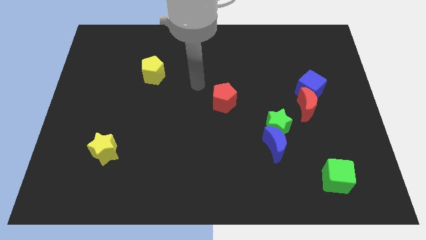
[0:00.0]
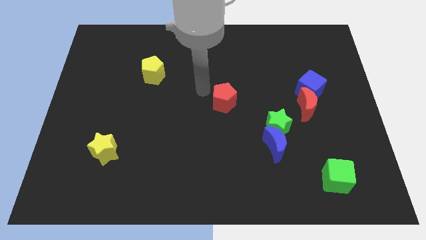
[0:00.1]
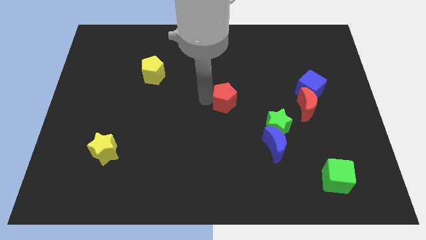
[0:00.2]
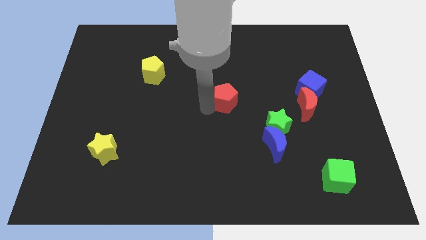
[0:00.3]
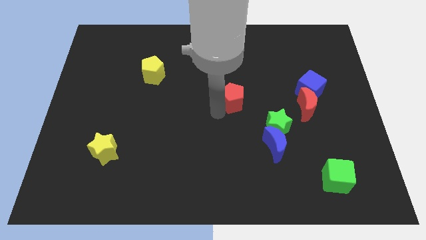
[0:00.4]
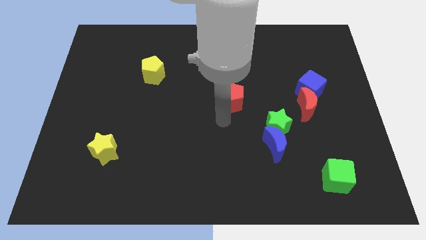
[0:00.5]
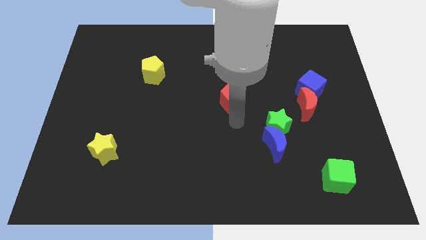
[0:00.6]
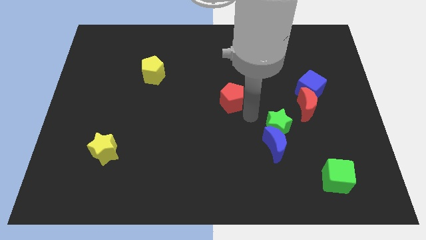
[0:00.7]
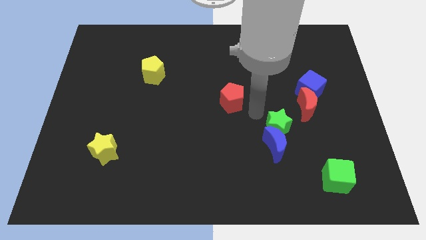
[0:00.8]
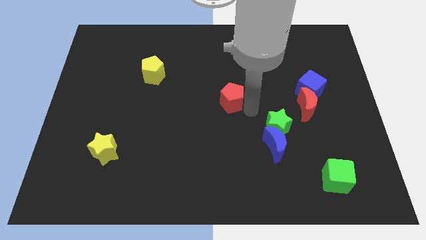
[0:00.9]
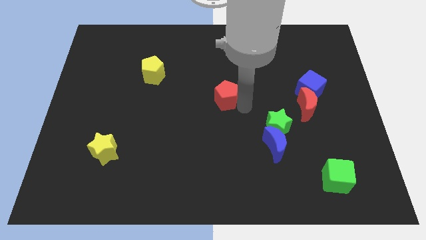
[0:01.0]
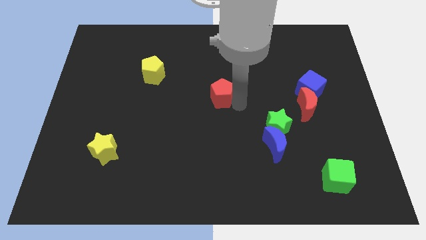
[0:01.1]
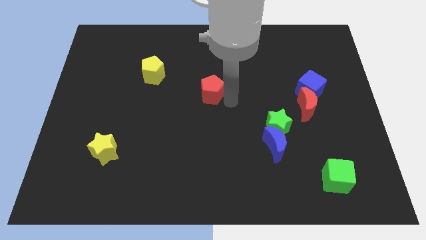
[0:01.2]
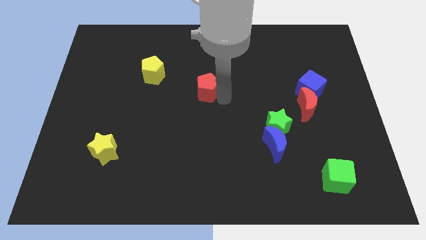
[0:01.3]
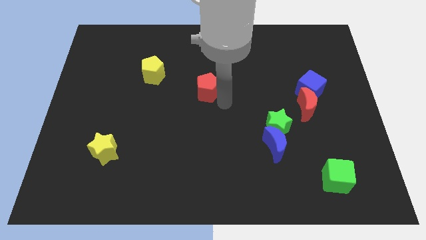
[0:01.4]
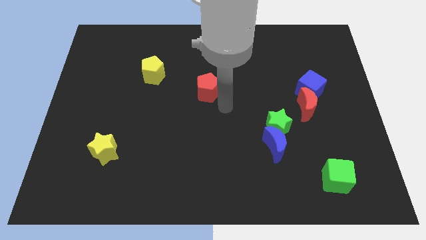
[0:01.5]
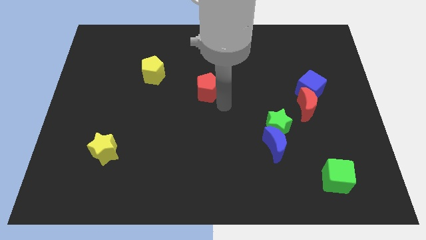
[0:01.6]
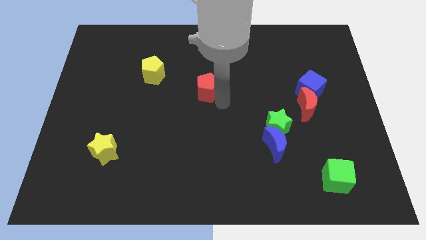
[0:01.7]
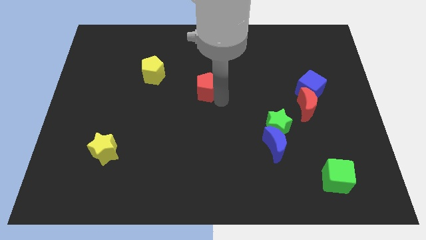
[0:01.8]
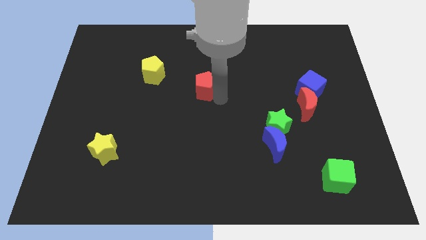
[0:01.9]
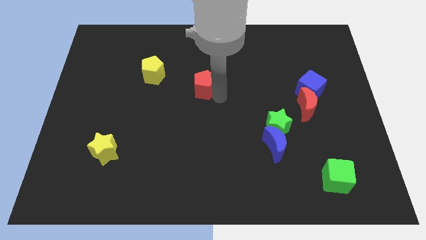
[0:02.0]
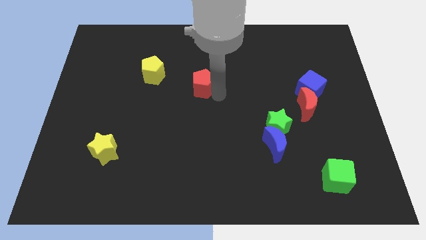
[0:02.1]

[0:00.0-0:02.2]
slide the red pentagon a little diagonally up and left

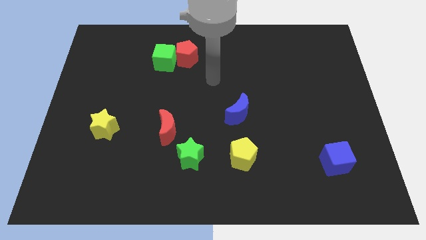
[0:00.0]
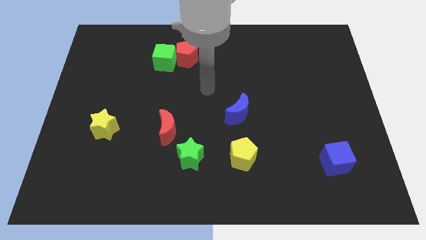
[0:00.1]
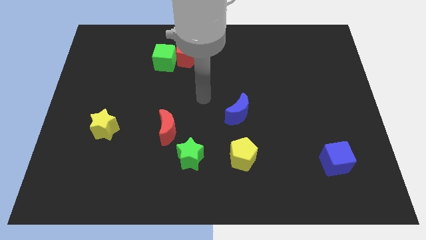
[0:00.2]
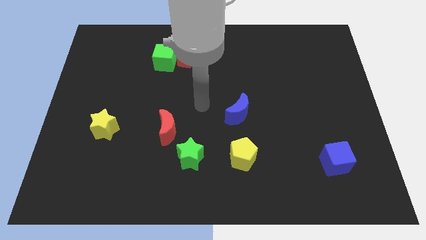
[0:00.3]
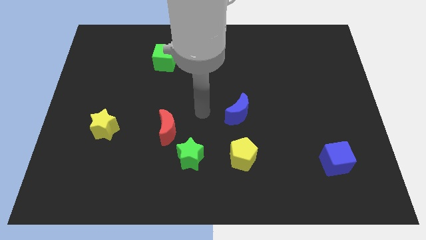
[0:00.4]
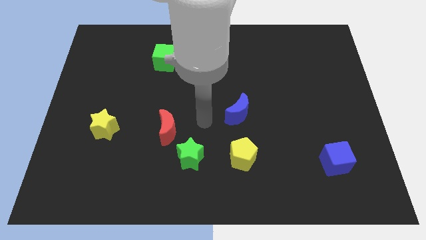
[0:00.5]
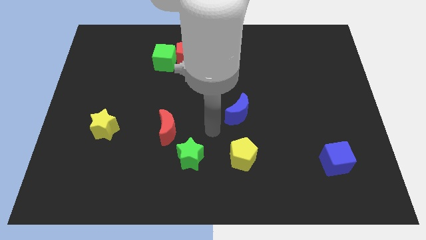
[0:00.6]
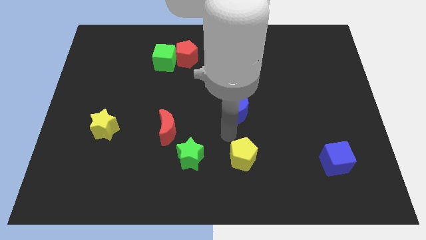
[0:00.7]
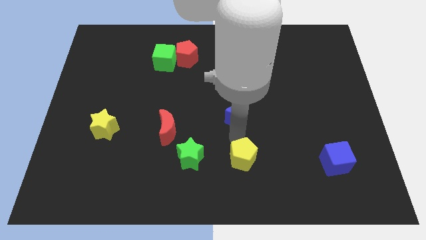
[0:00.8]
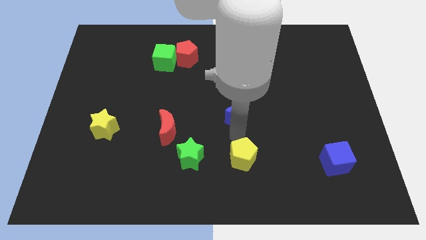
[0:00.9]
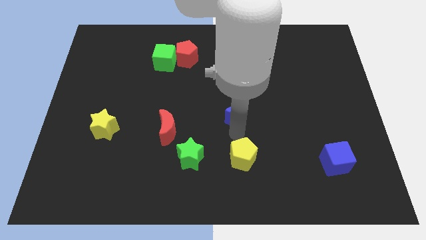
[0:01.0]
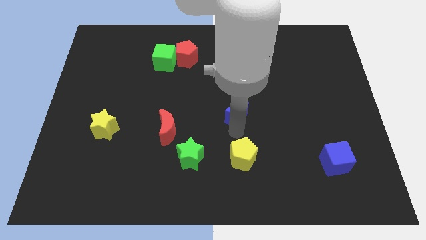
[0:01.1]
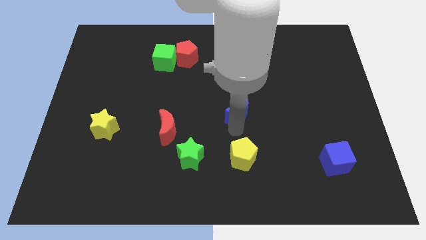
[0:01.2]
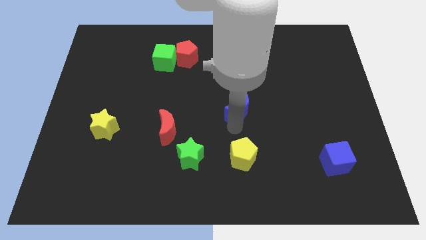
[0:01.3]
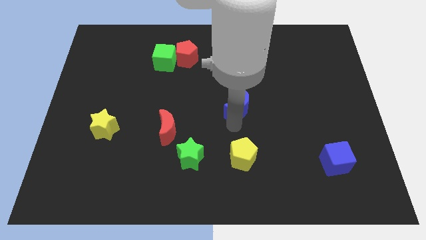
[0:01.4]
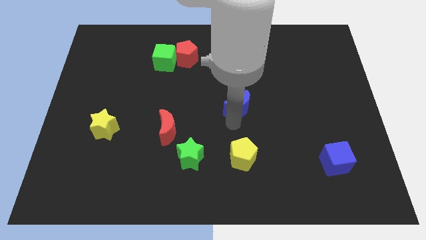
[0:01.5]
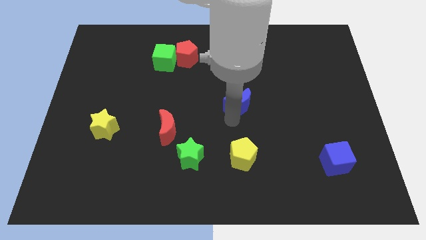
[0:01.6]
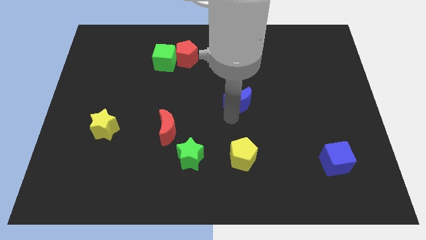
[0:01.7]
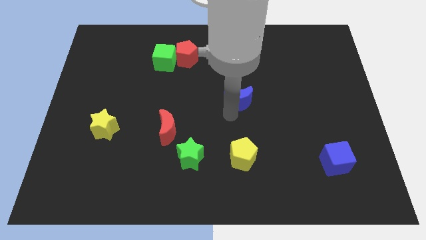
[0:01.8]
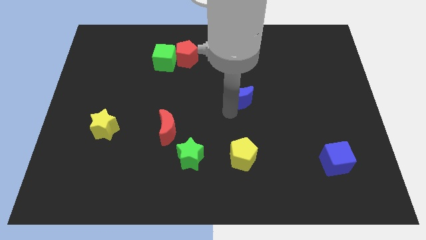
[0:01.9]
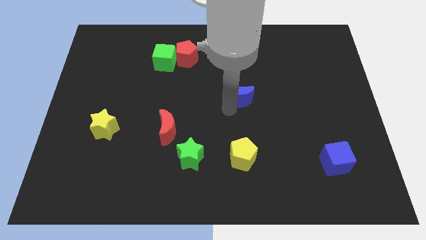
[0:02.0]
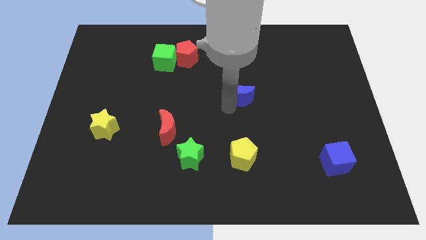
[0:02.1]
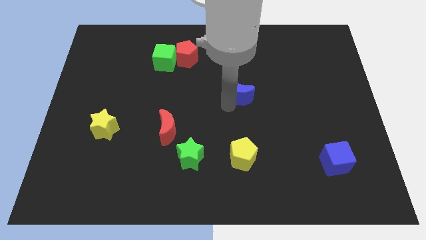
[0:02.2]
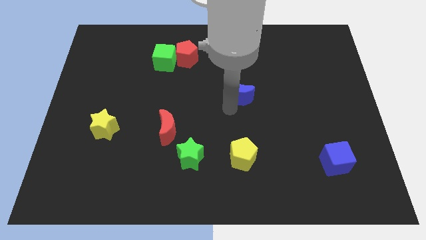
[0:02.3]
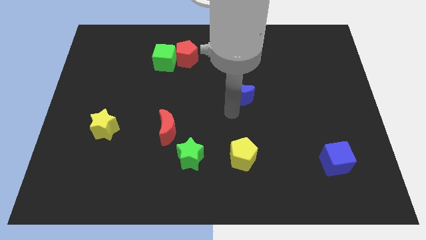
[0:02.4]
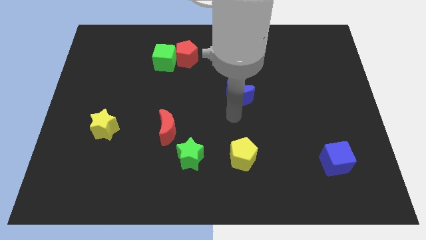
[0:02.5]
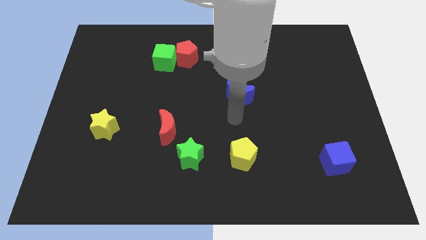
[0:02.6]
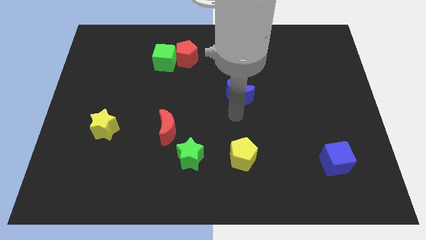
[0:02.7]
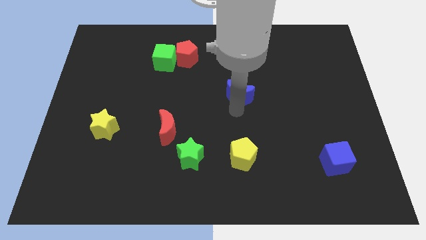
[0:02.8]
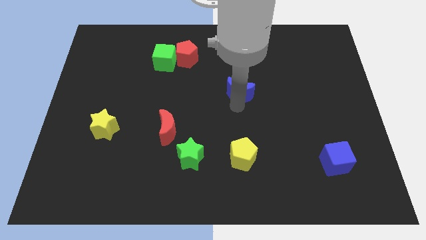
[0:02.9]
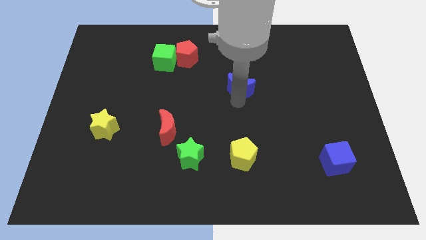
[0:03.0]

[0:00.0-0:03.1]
move the blue moon a little up

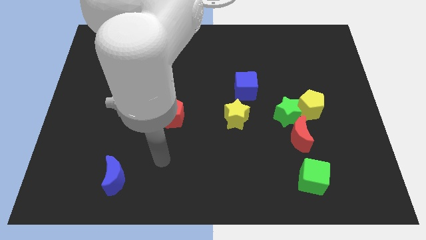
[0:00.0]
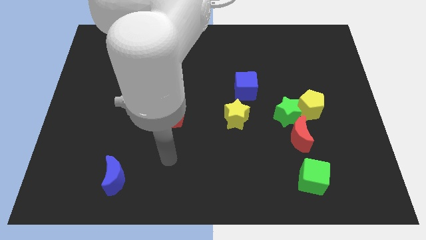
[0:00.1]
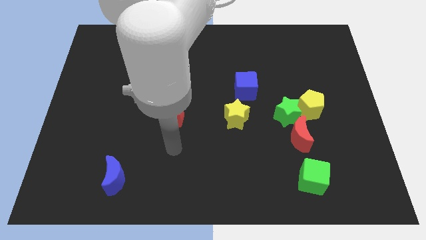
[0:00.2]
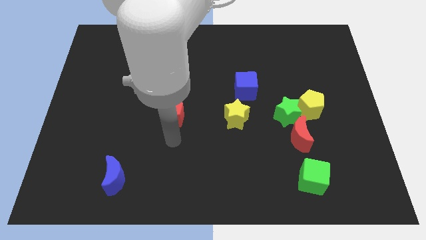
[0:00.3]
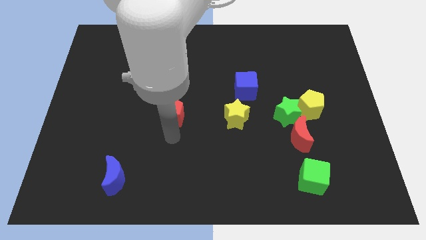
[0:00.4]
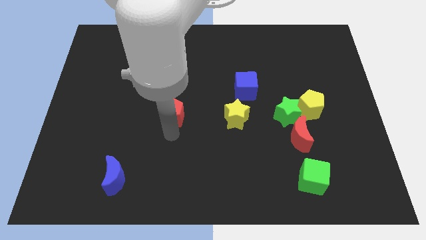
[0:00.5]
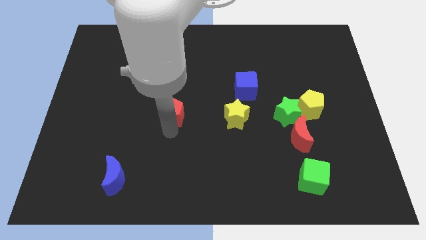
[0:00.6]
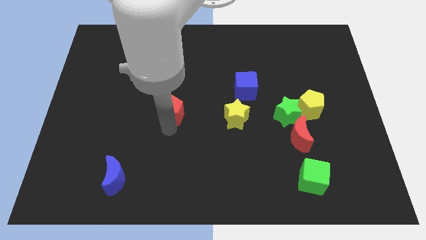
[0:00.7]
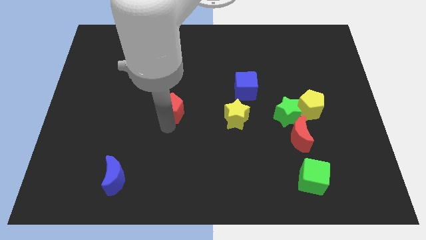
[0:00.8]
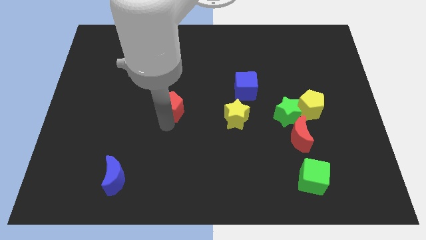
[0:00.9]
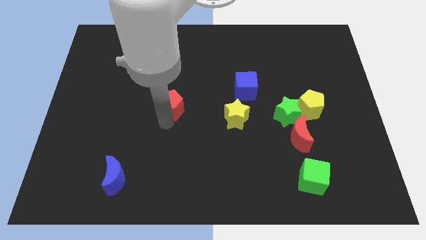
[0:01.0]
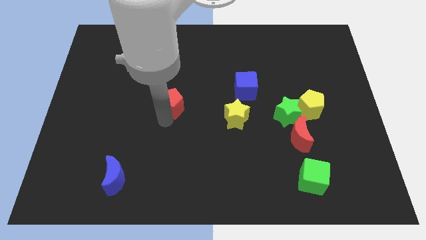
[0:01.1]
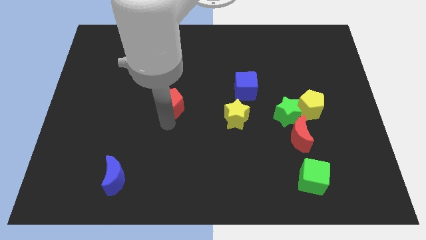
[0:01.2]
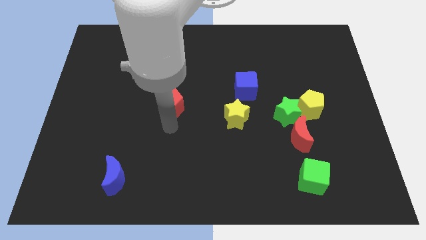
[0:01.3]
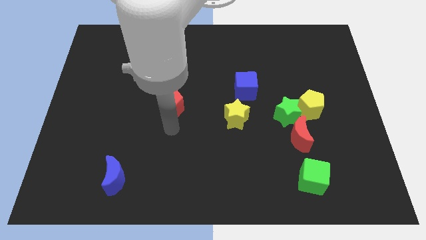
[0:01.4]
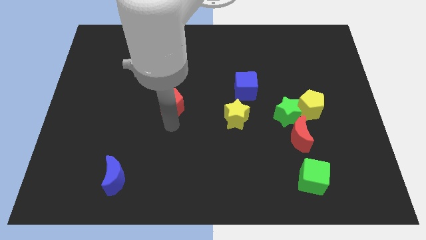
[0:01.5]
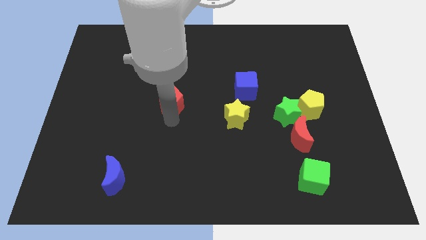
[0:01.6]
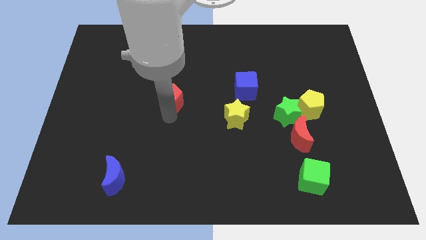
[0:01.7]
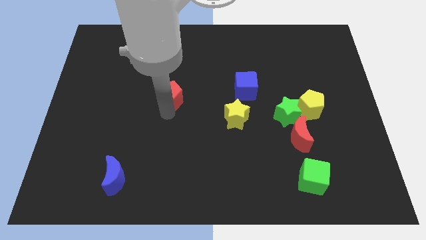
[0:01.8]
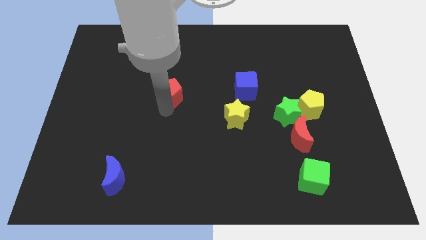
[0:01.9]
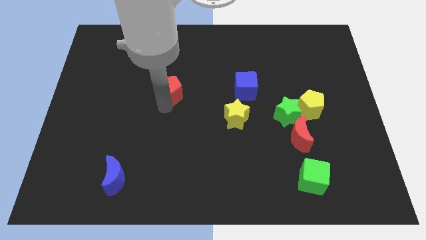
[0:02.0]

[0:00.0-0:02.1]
slightly push the red pentagon up

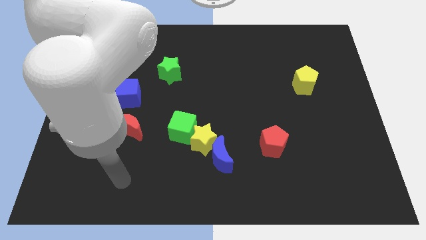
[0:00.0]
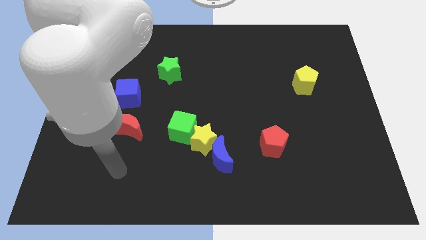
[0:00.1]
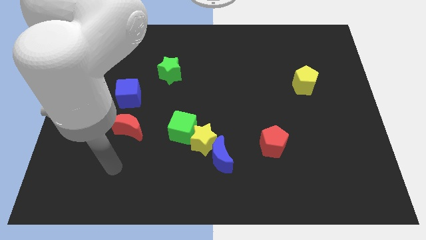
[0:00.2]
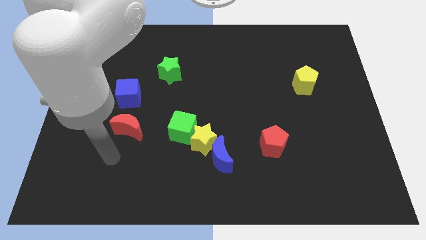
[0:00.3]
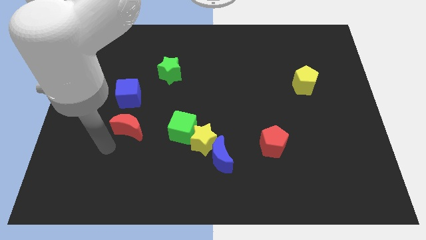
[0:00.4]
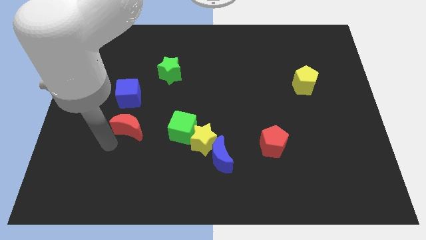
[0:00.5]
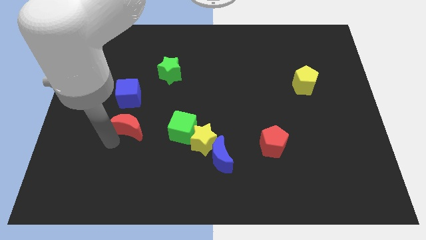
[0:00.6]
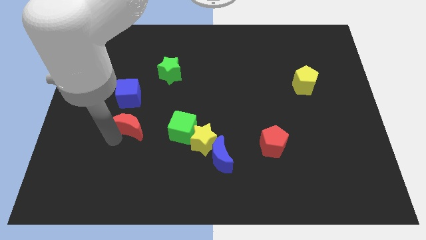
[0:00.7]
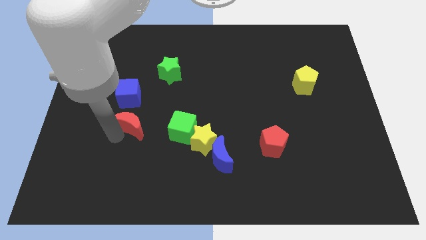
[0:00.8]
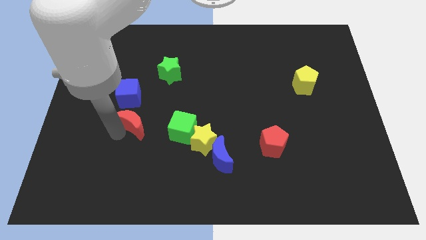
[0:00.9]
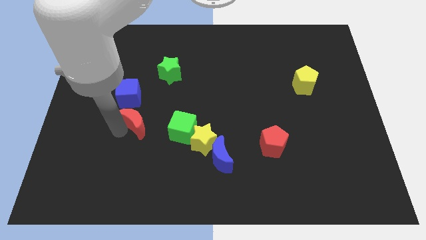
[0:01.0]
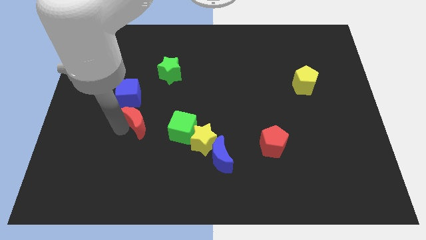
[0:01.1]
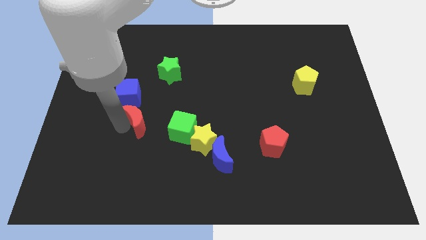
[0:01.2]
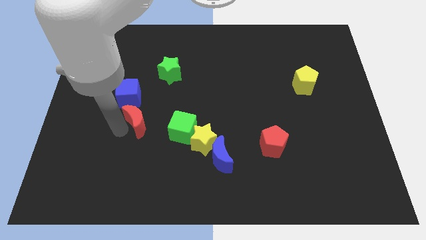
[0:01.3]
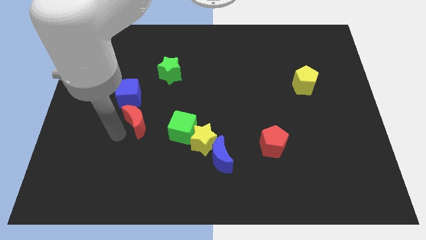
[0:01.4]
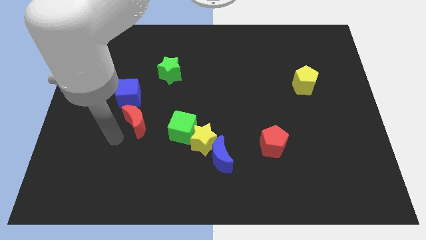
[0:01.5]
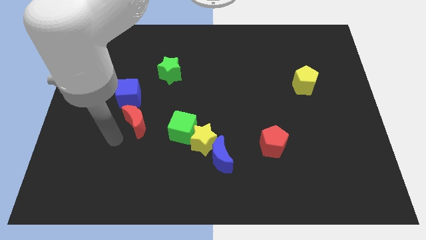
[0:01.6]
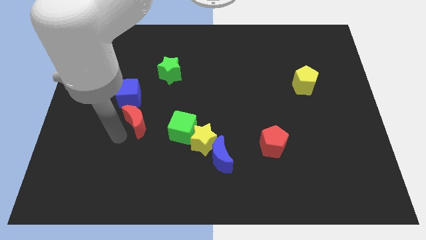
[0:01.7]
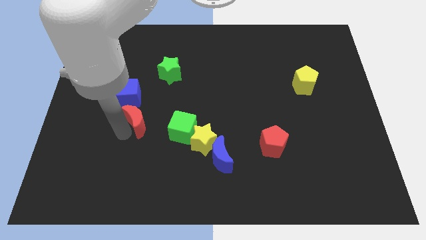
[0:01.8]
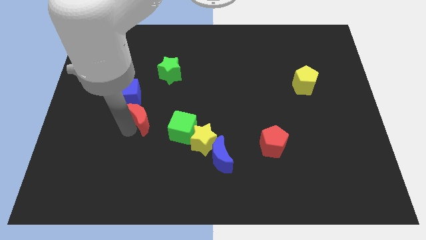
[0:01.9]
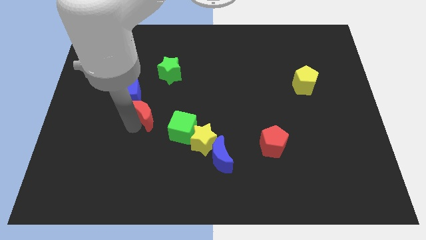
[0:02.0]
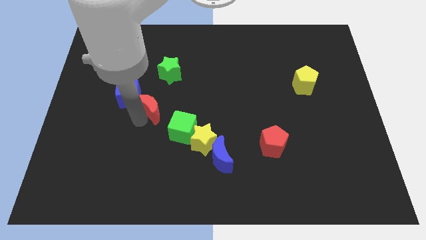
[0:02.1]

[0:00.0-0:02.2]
slightly slide the red moon diagonally upwards and to the right
